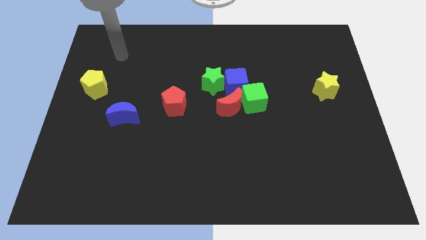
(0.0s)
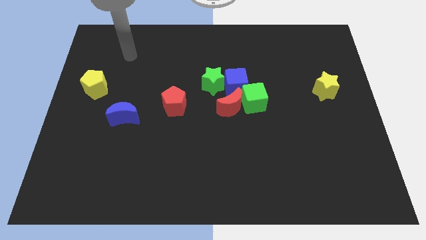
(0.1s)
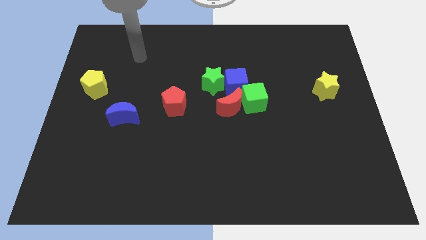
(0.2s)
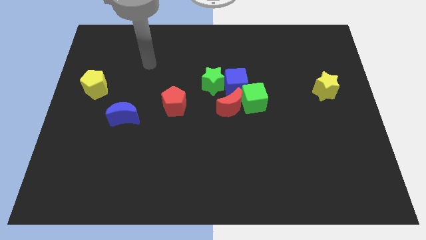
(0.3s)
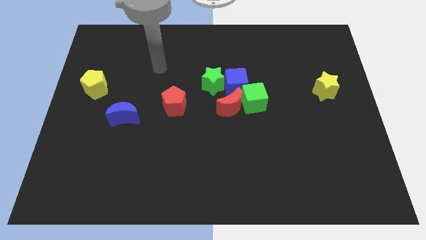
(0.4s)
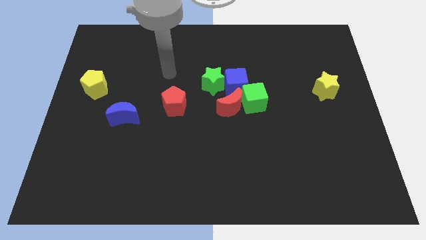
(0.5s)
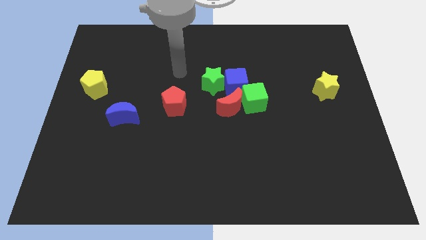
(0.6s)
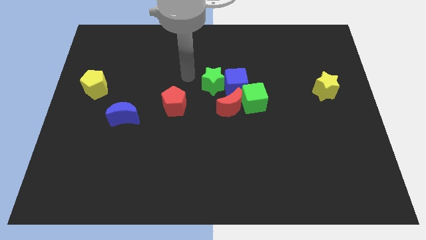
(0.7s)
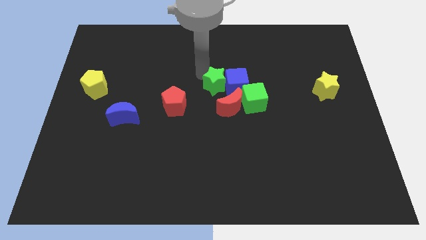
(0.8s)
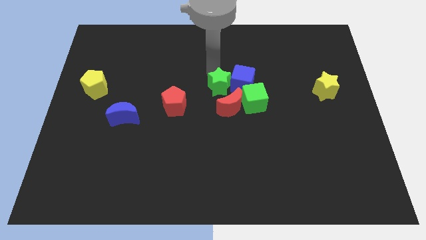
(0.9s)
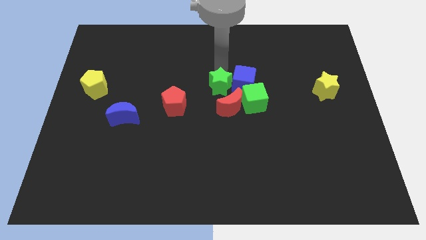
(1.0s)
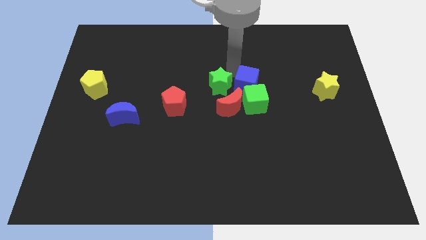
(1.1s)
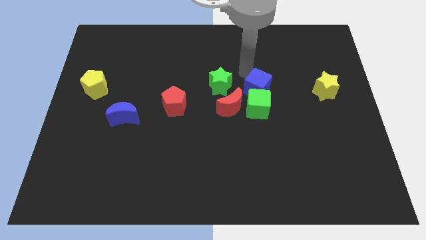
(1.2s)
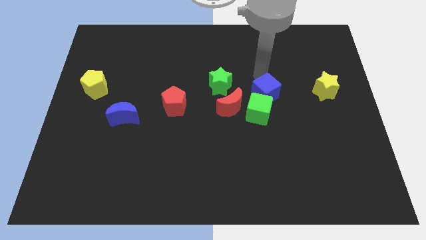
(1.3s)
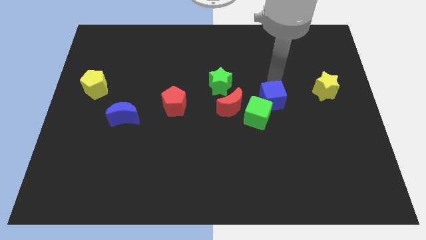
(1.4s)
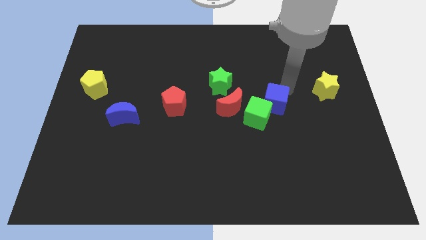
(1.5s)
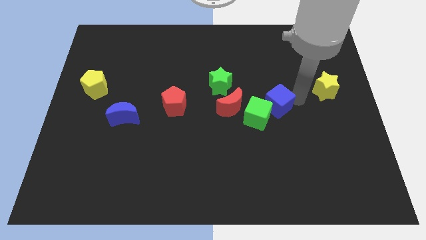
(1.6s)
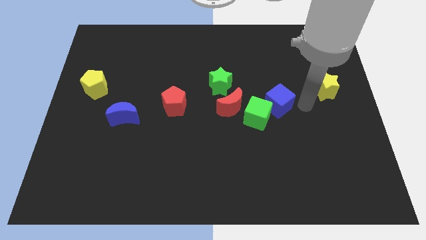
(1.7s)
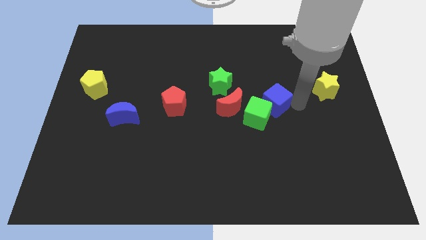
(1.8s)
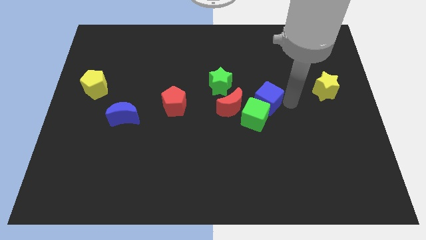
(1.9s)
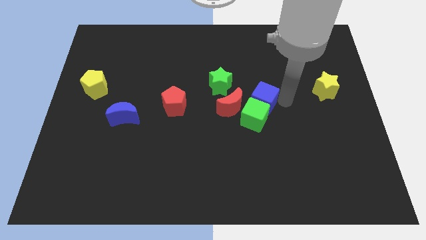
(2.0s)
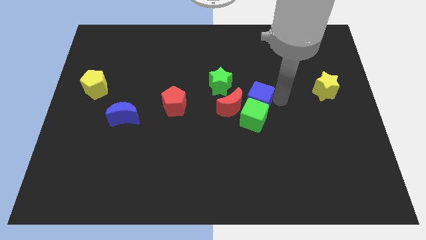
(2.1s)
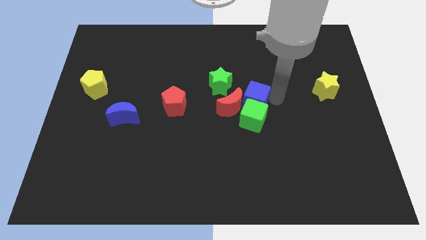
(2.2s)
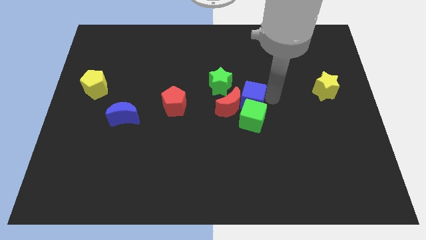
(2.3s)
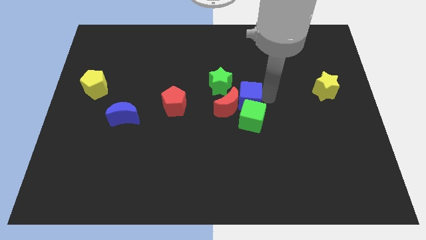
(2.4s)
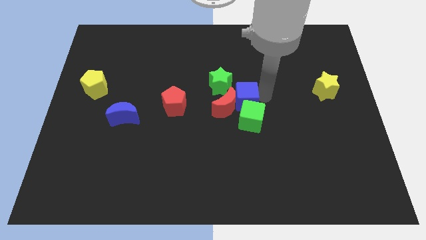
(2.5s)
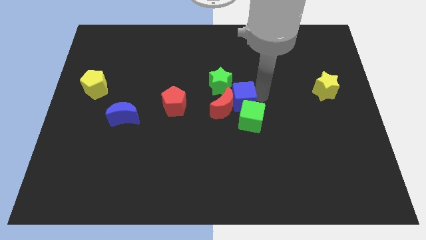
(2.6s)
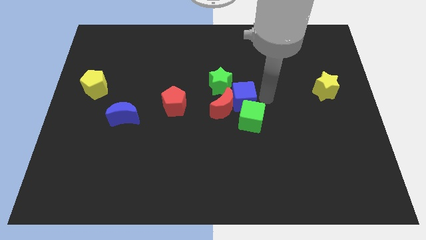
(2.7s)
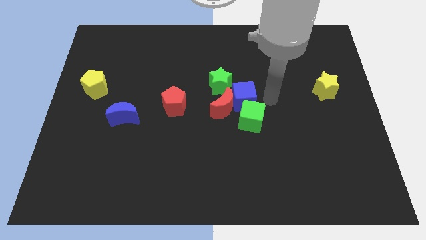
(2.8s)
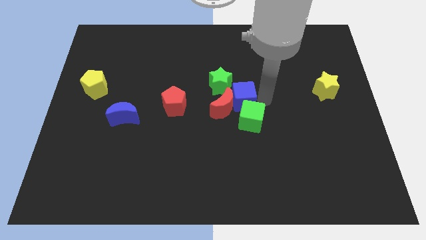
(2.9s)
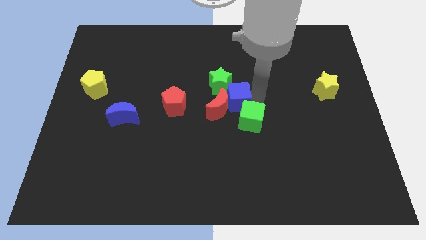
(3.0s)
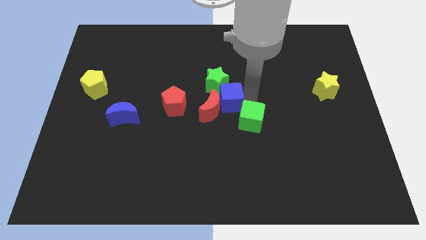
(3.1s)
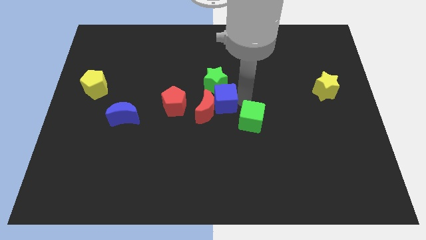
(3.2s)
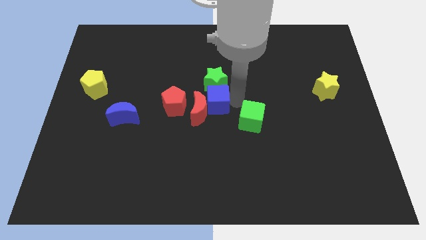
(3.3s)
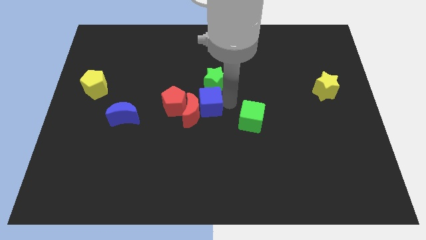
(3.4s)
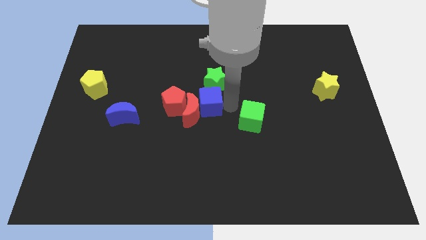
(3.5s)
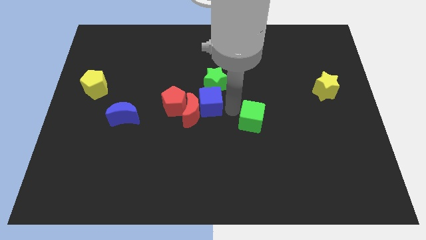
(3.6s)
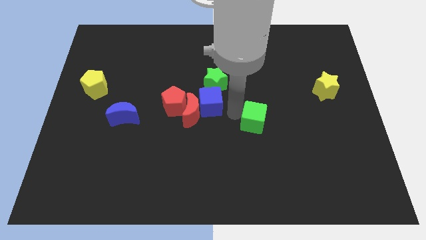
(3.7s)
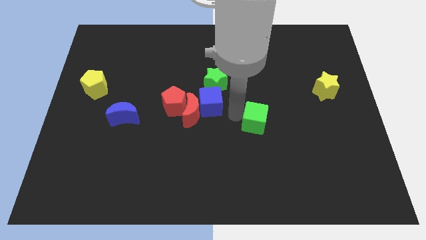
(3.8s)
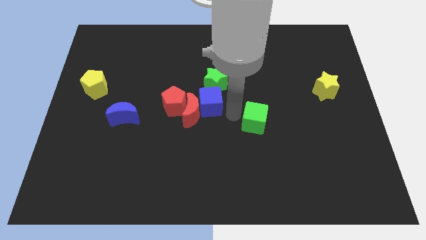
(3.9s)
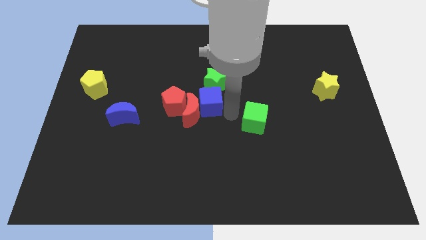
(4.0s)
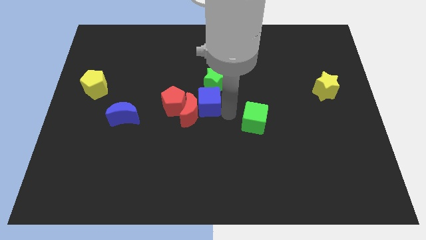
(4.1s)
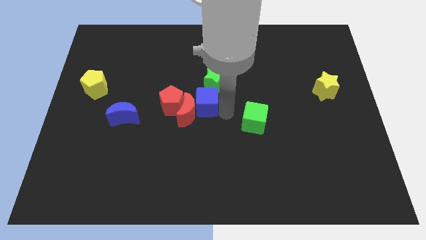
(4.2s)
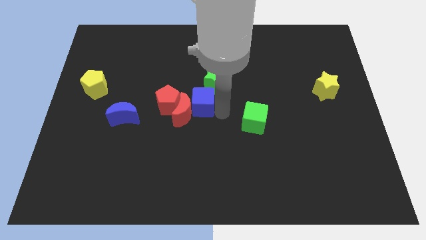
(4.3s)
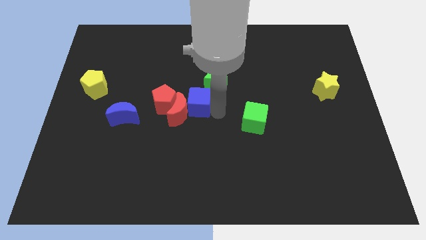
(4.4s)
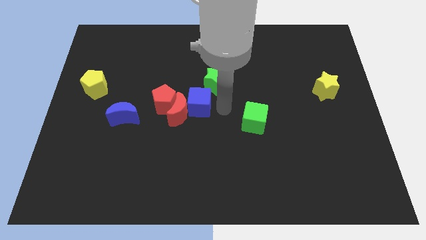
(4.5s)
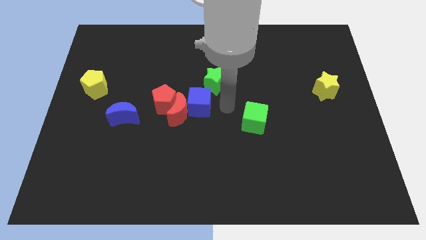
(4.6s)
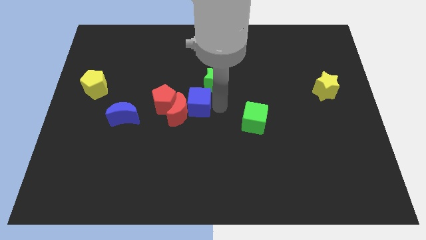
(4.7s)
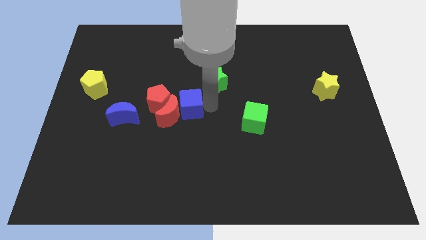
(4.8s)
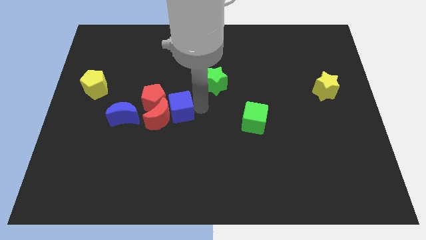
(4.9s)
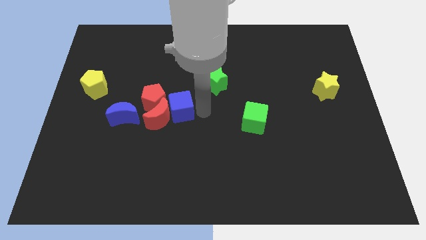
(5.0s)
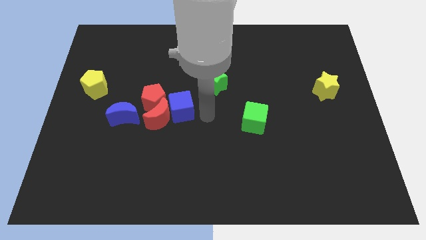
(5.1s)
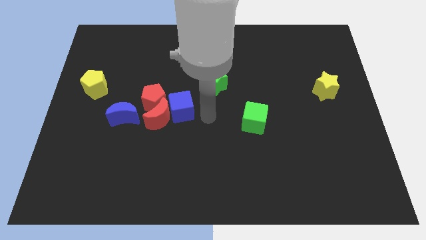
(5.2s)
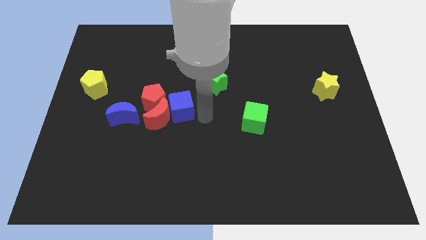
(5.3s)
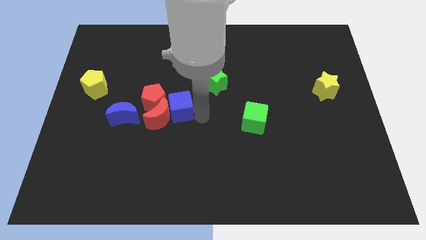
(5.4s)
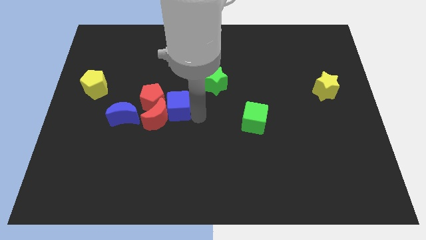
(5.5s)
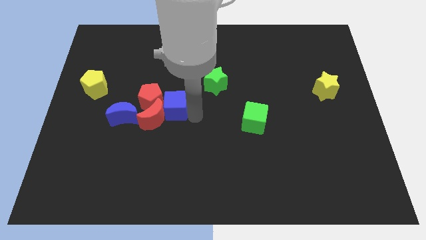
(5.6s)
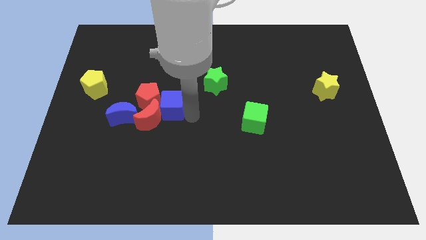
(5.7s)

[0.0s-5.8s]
put the blue cube next to the red pentagon

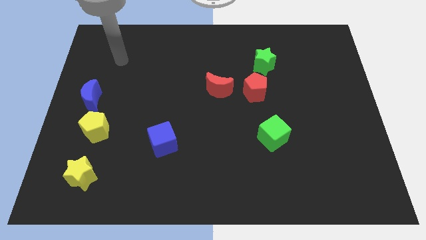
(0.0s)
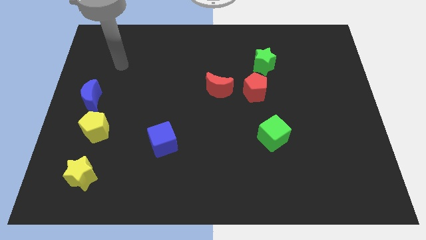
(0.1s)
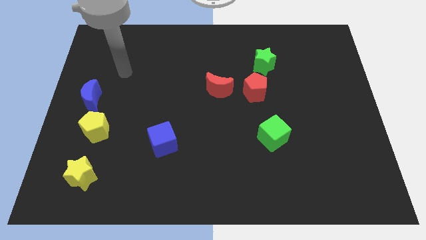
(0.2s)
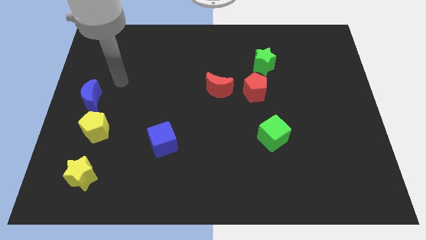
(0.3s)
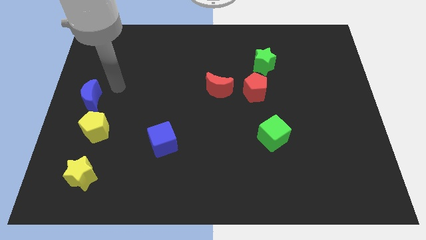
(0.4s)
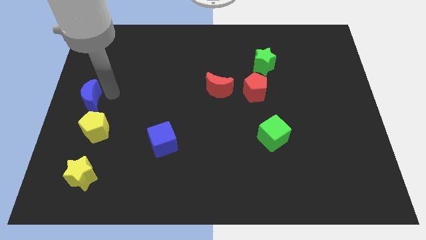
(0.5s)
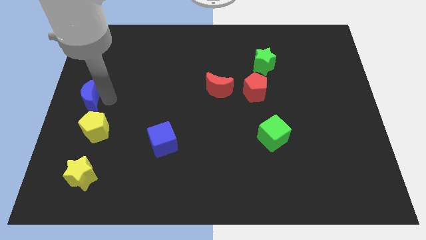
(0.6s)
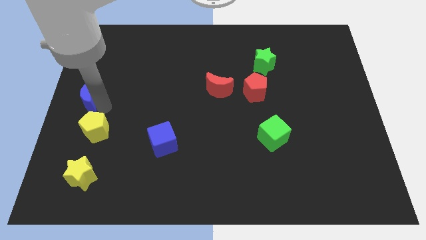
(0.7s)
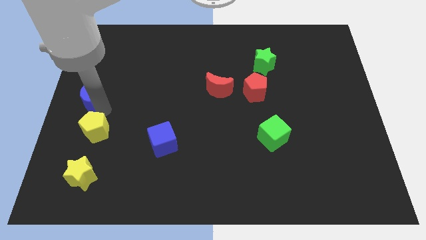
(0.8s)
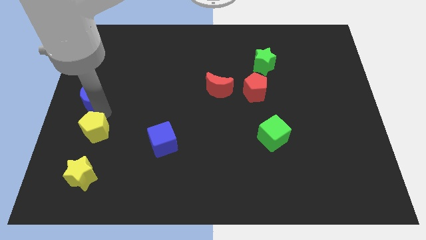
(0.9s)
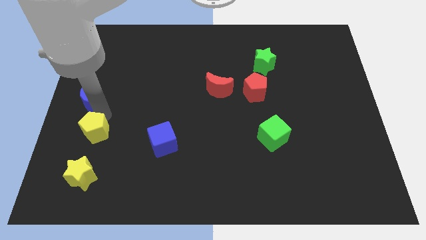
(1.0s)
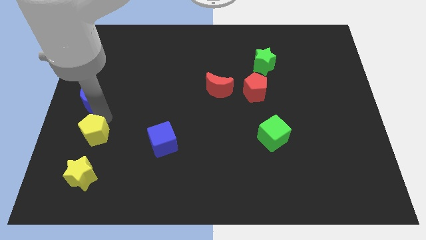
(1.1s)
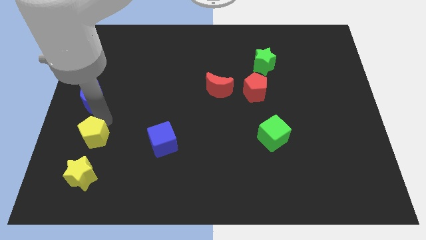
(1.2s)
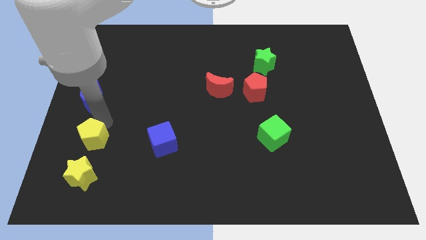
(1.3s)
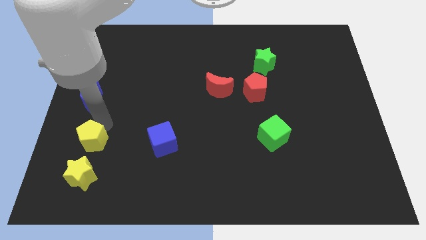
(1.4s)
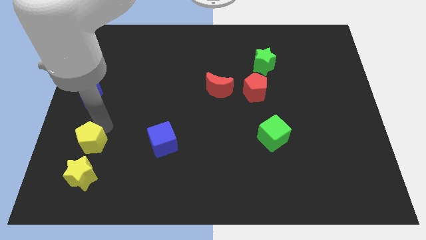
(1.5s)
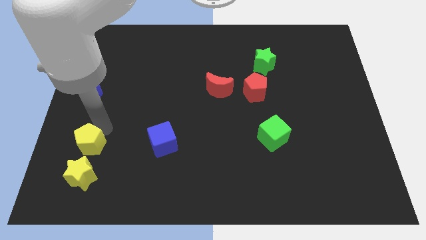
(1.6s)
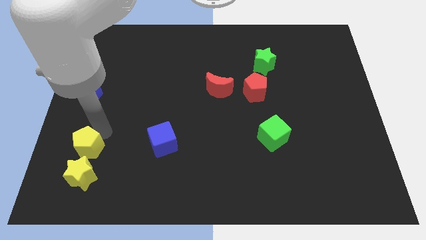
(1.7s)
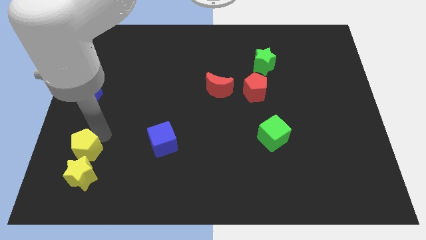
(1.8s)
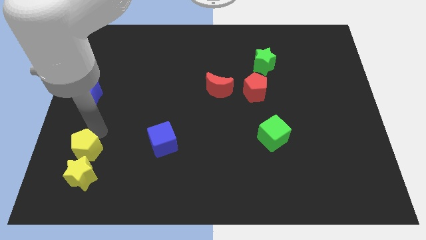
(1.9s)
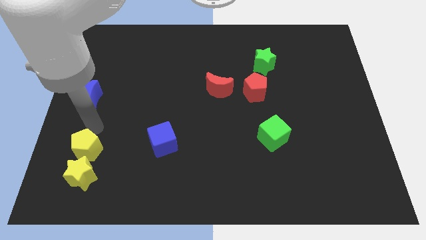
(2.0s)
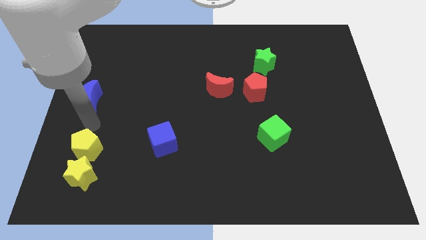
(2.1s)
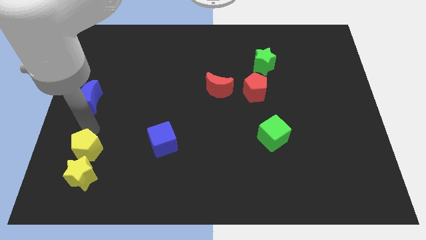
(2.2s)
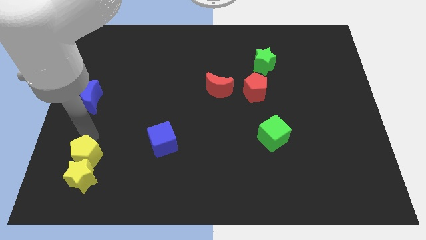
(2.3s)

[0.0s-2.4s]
move the yellow pentagon to the yellow star
